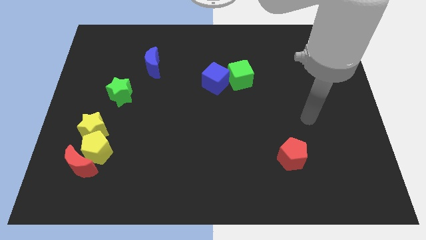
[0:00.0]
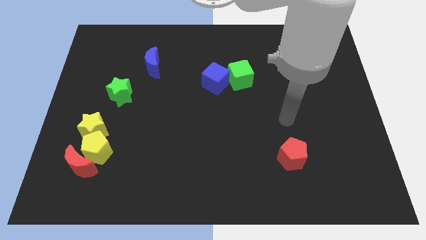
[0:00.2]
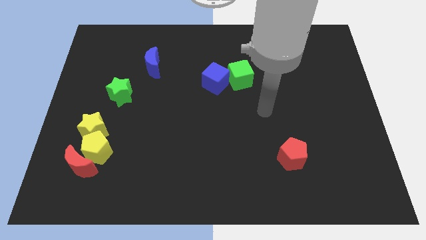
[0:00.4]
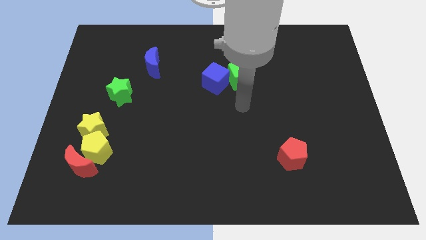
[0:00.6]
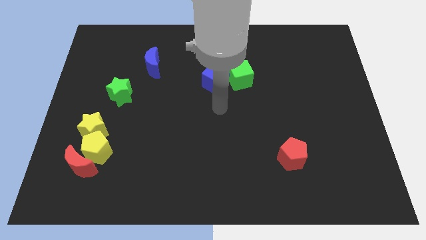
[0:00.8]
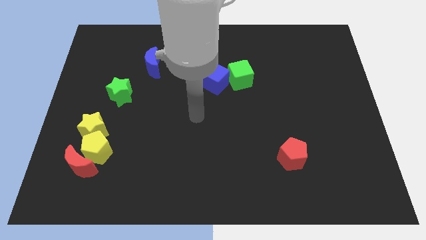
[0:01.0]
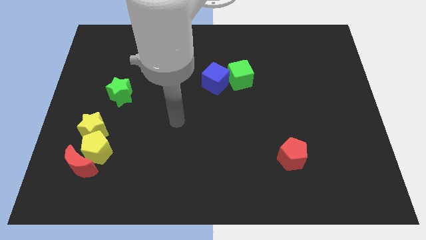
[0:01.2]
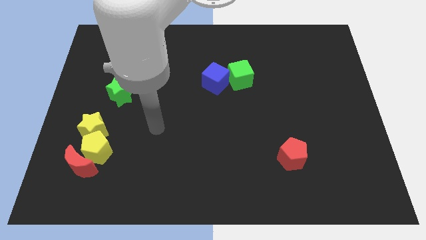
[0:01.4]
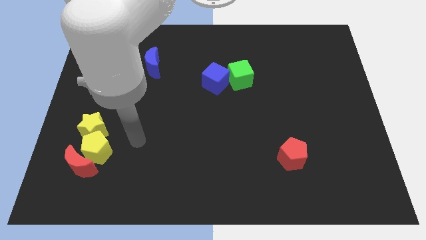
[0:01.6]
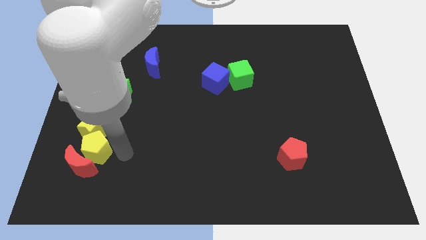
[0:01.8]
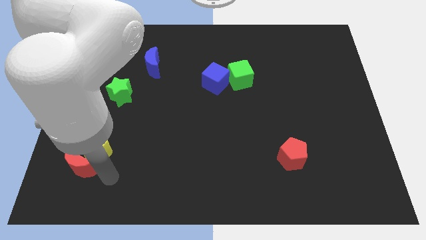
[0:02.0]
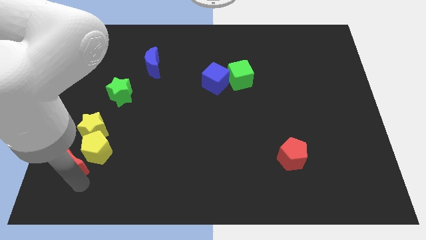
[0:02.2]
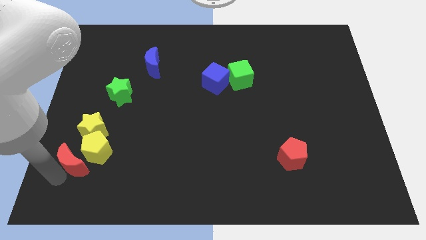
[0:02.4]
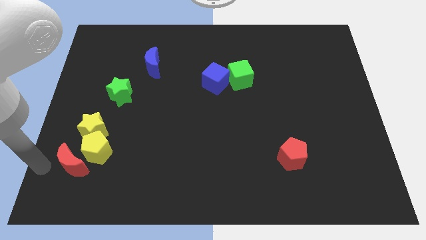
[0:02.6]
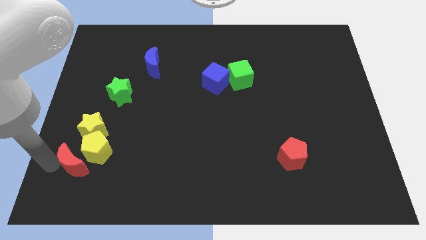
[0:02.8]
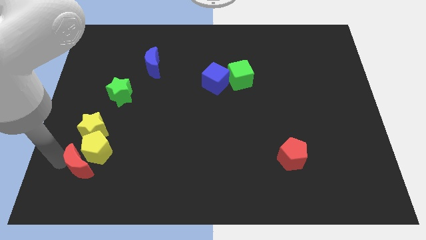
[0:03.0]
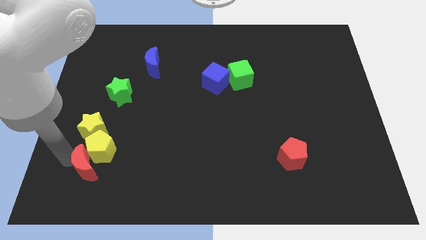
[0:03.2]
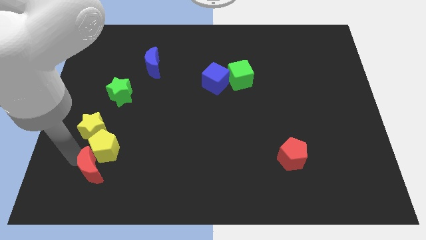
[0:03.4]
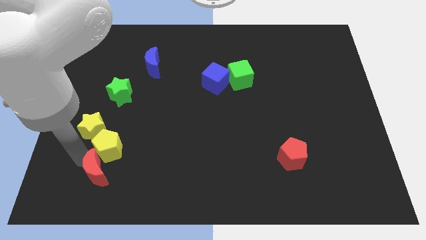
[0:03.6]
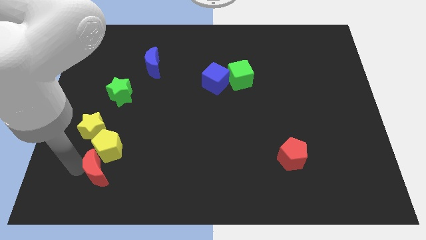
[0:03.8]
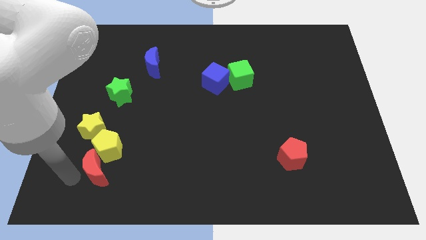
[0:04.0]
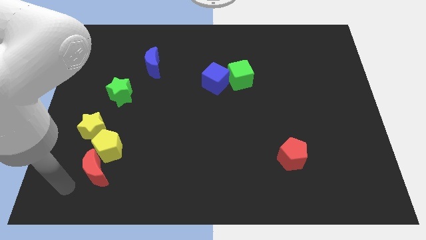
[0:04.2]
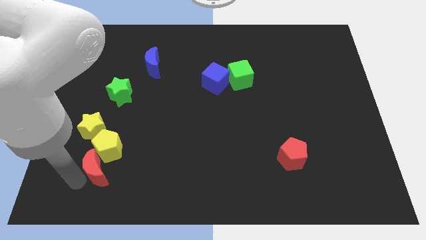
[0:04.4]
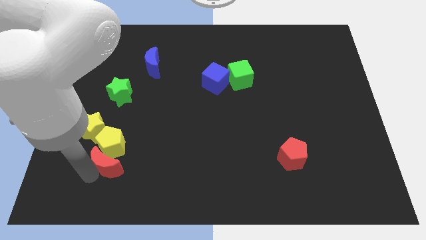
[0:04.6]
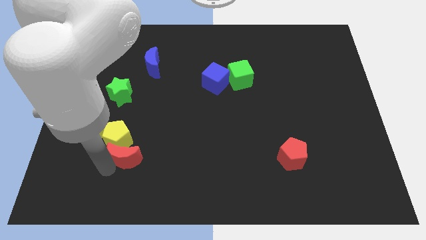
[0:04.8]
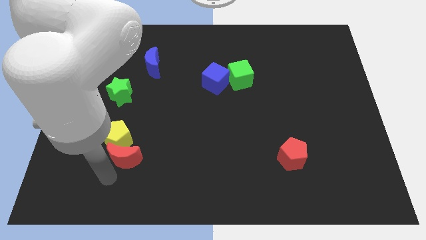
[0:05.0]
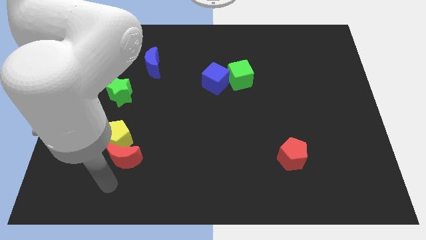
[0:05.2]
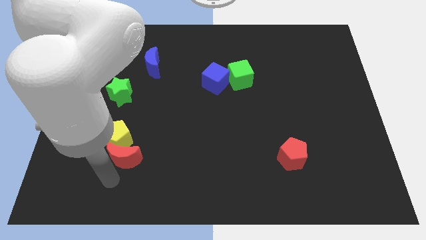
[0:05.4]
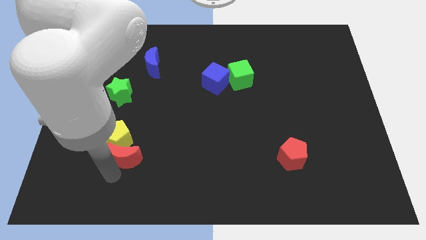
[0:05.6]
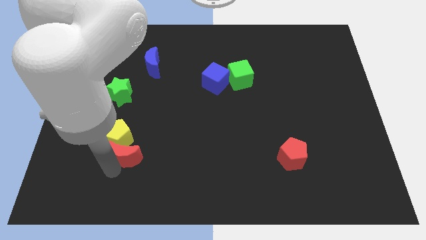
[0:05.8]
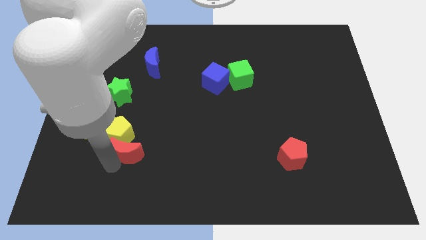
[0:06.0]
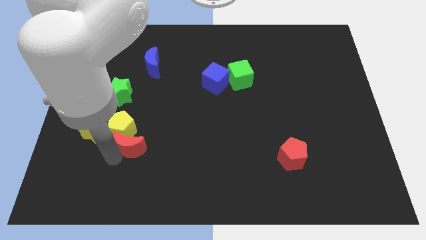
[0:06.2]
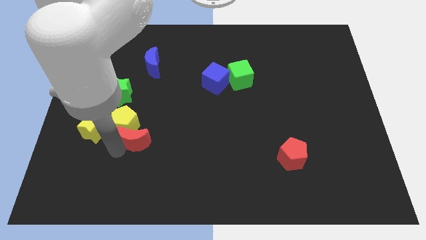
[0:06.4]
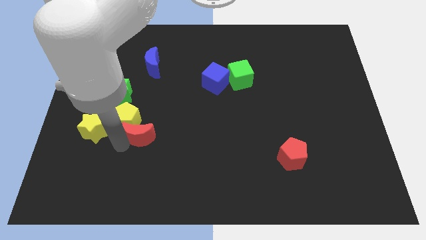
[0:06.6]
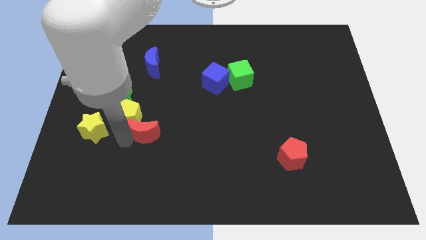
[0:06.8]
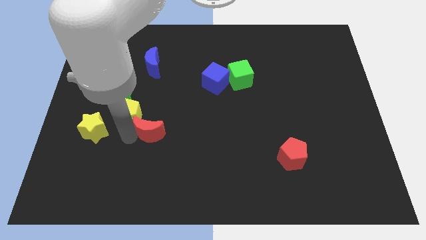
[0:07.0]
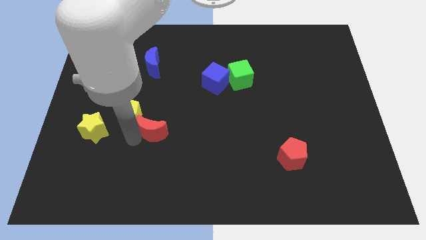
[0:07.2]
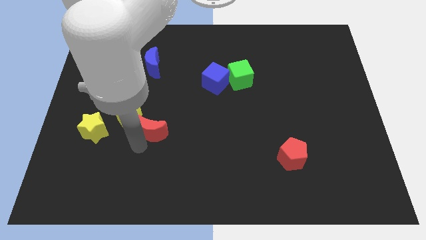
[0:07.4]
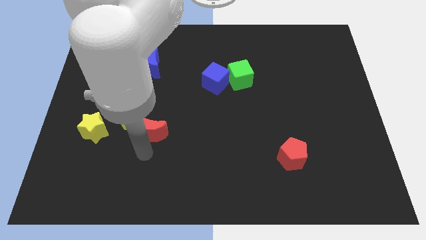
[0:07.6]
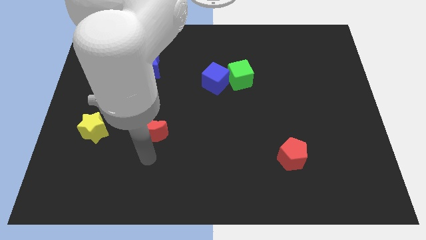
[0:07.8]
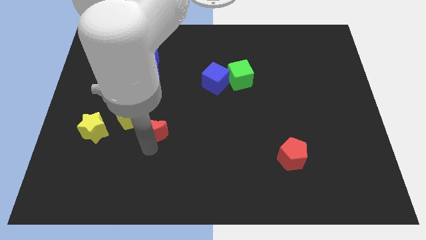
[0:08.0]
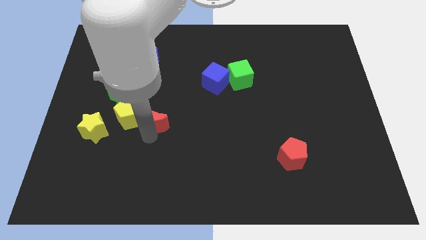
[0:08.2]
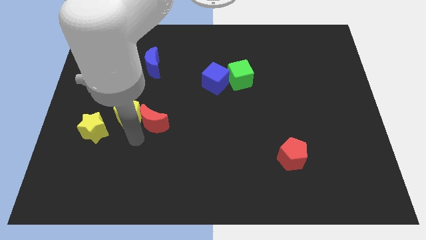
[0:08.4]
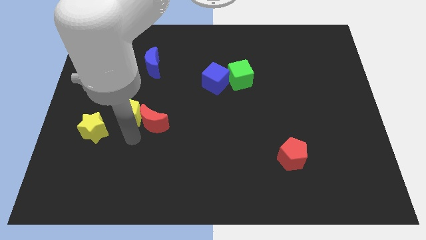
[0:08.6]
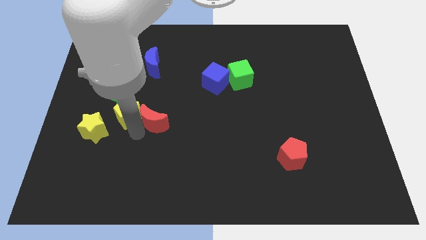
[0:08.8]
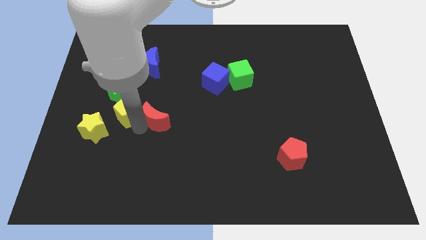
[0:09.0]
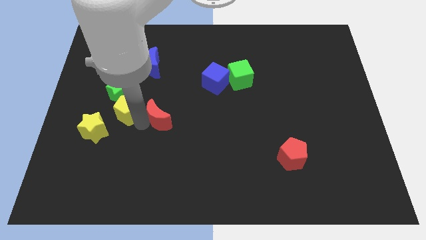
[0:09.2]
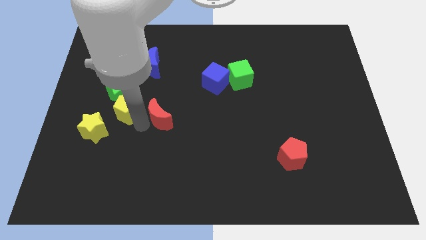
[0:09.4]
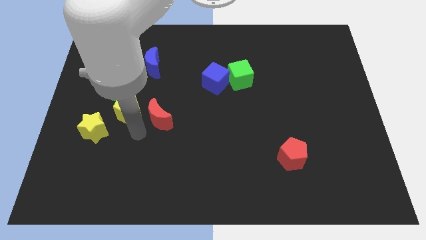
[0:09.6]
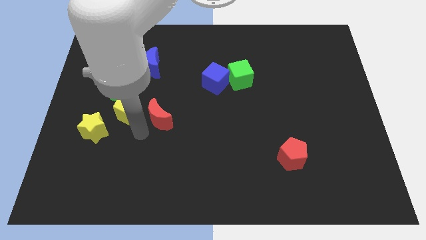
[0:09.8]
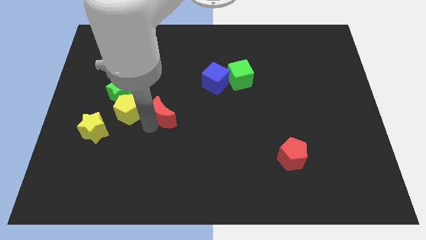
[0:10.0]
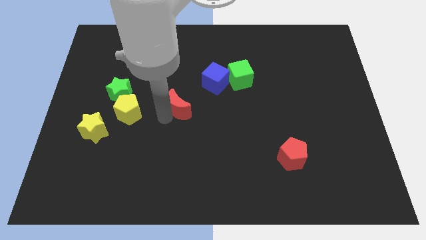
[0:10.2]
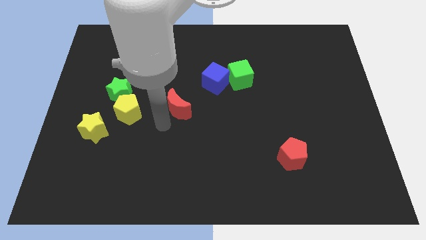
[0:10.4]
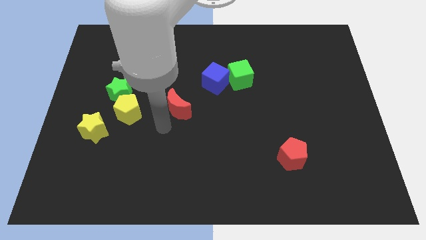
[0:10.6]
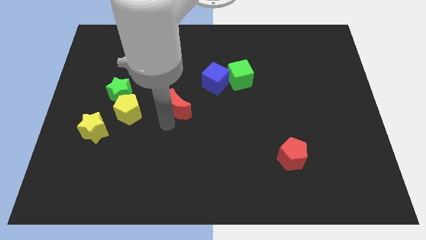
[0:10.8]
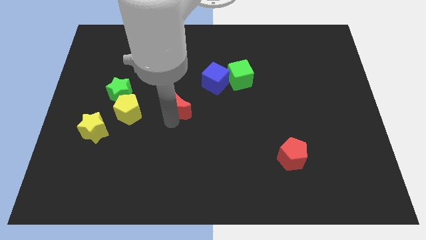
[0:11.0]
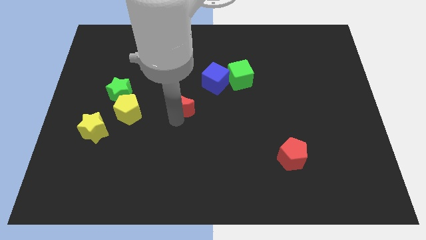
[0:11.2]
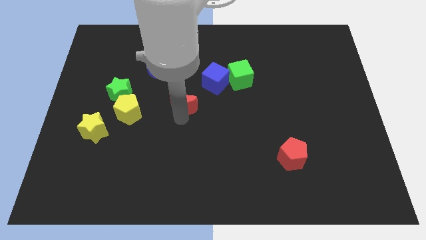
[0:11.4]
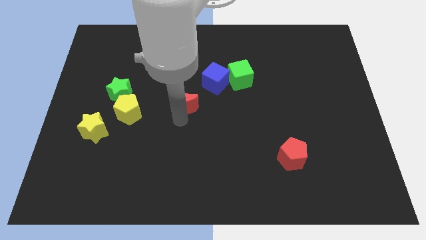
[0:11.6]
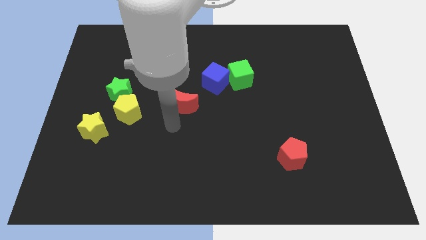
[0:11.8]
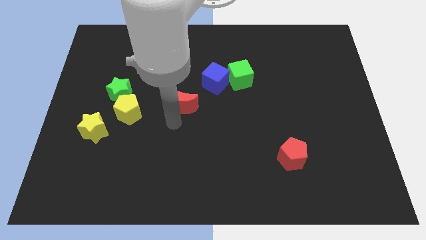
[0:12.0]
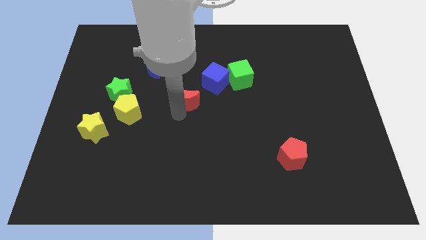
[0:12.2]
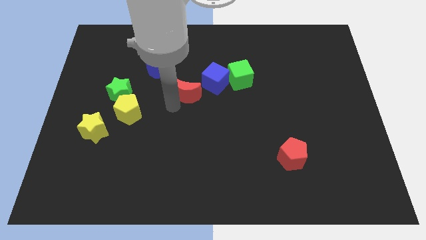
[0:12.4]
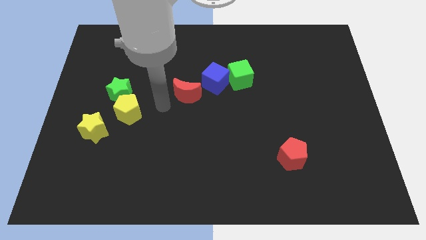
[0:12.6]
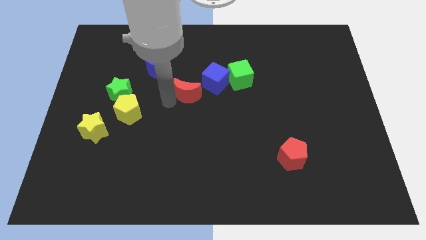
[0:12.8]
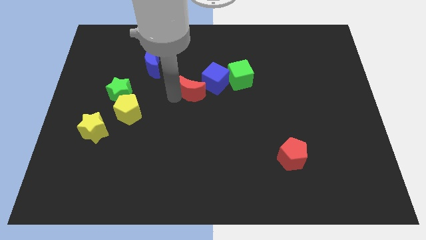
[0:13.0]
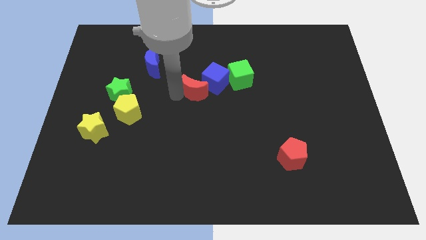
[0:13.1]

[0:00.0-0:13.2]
slide the red moon next to the blue cube
